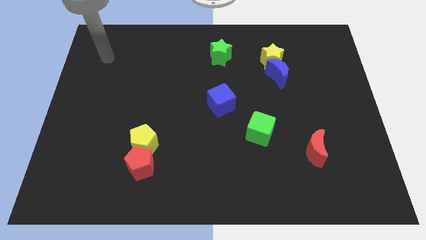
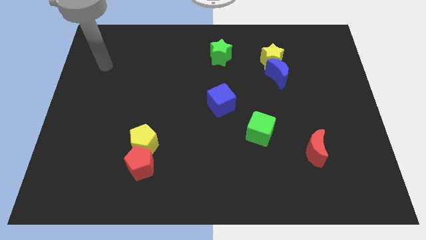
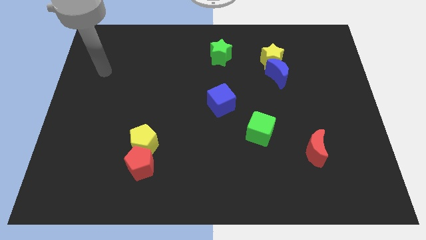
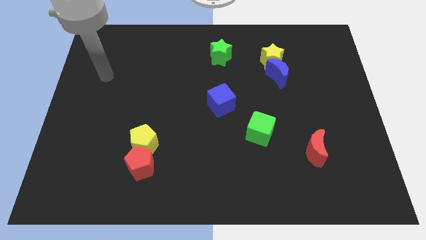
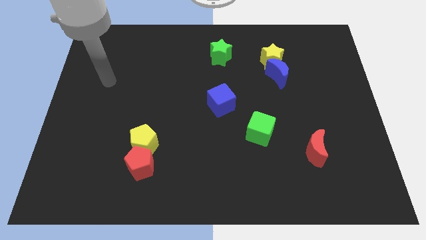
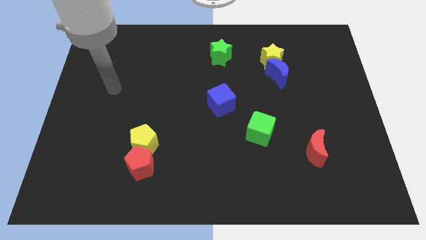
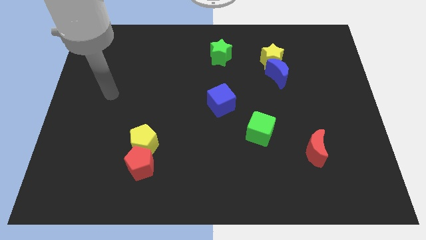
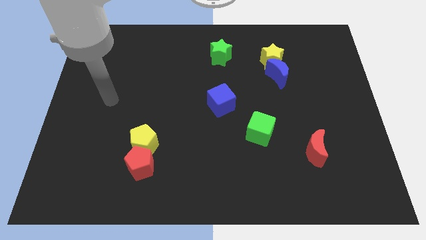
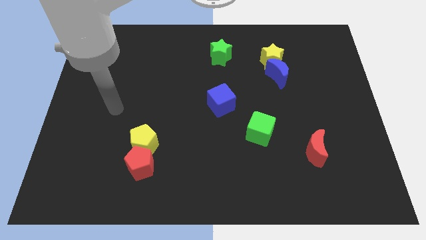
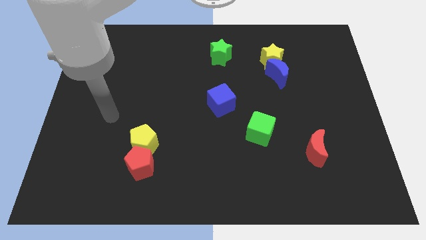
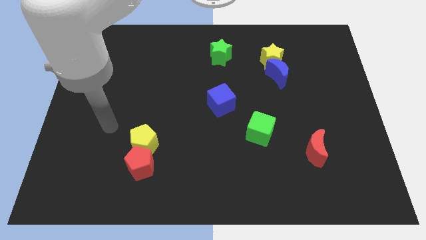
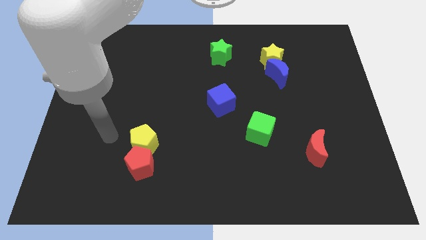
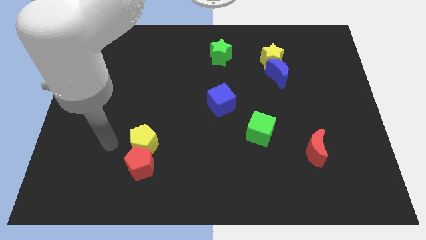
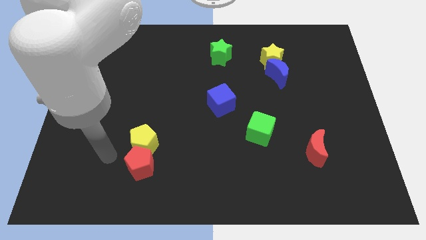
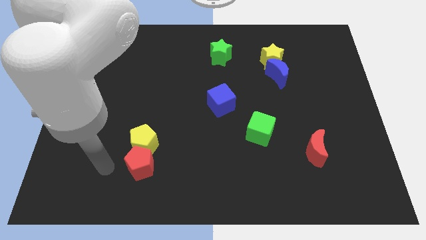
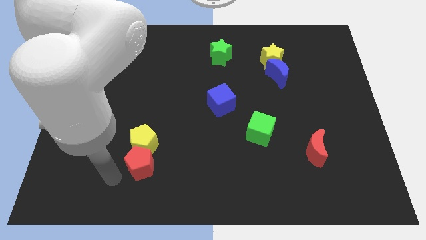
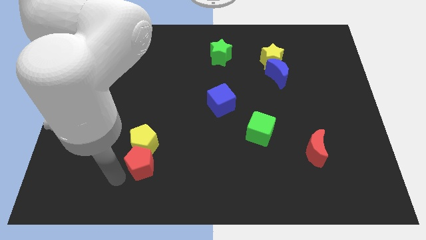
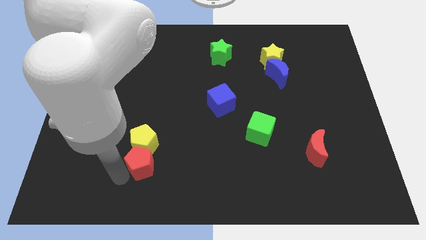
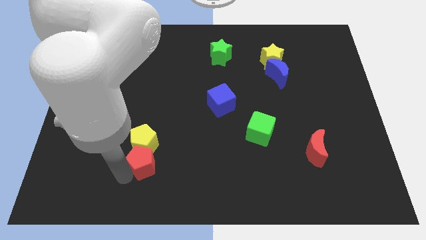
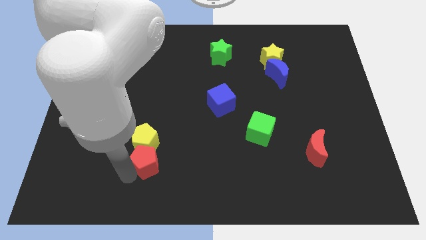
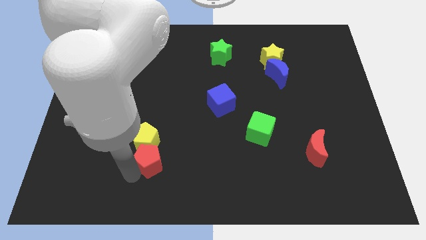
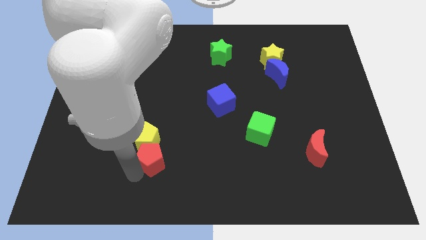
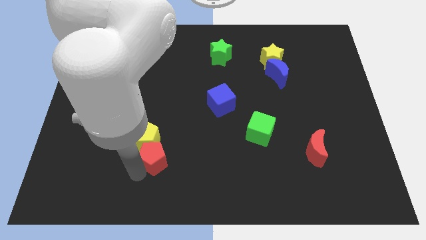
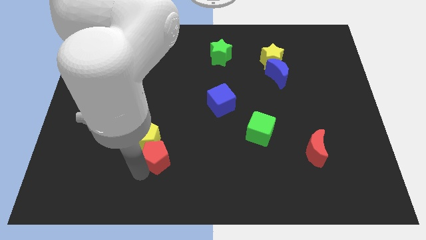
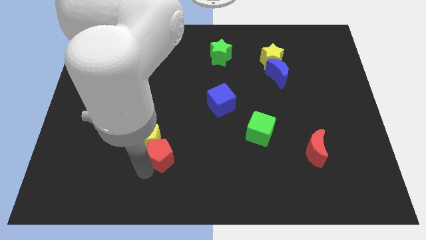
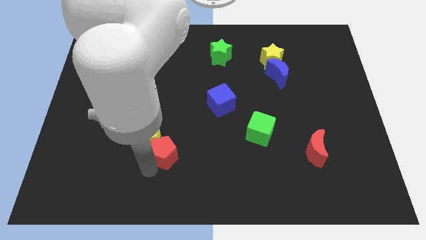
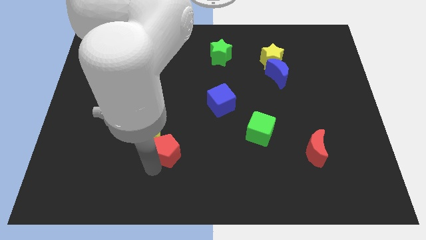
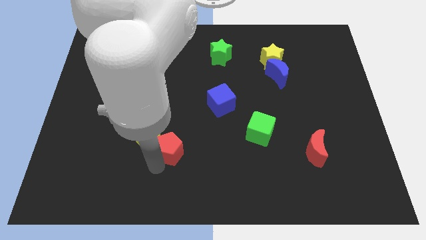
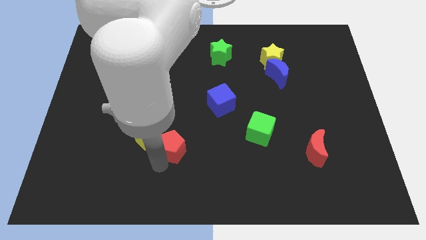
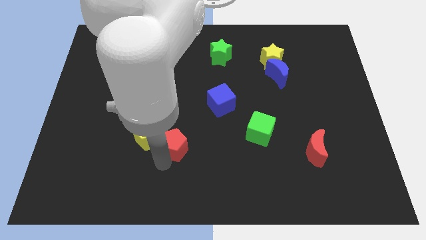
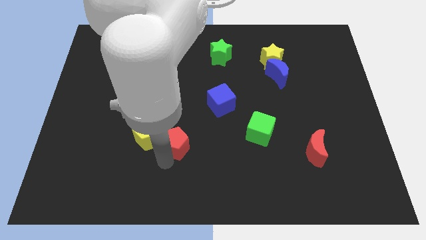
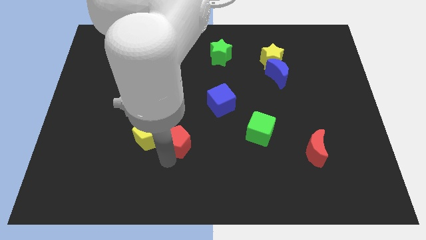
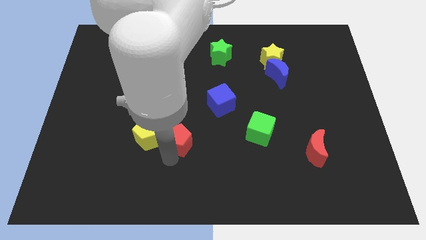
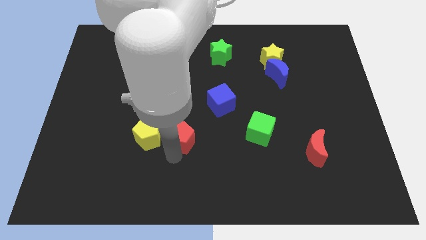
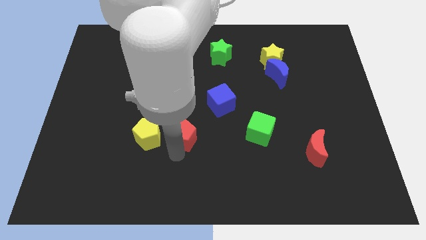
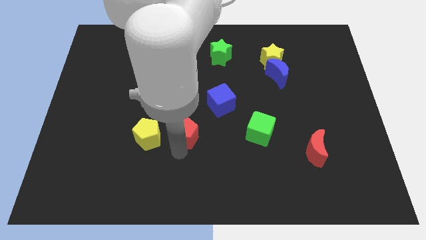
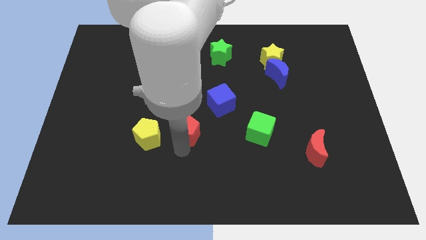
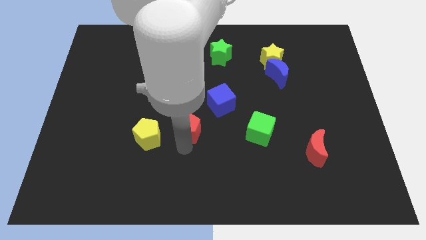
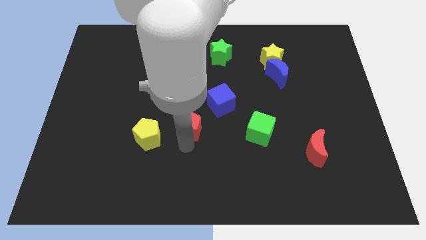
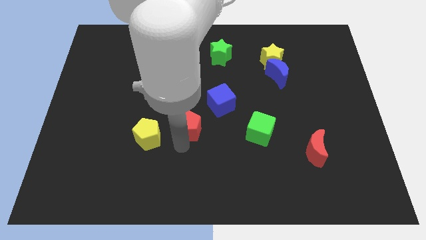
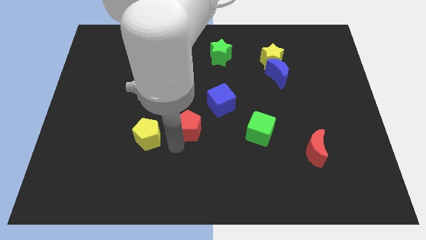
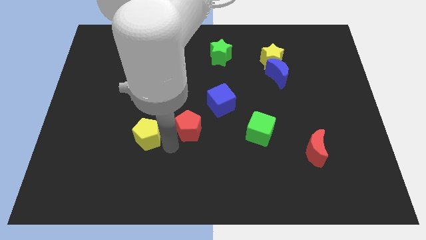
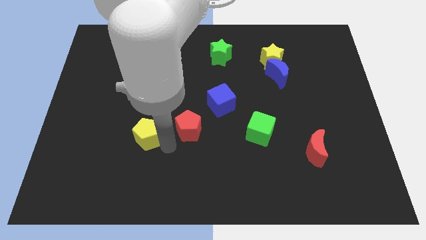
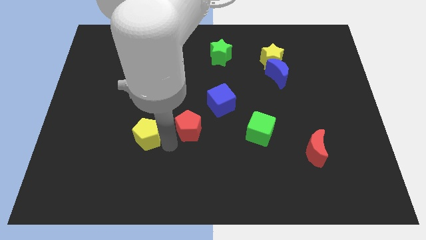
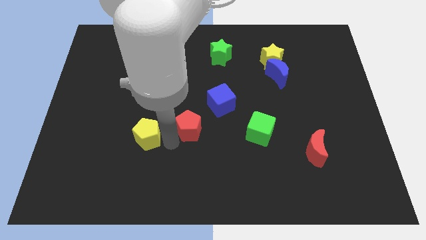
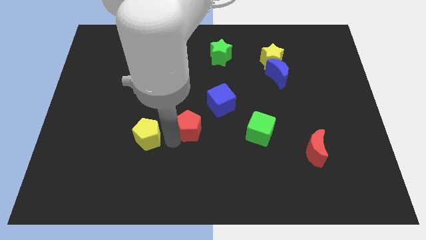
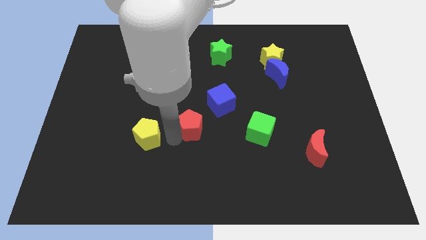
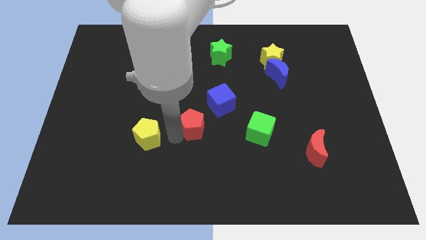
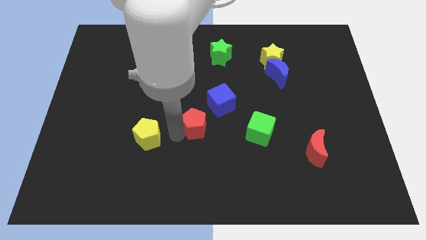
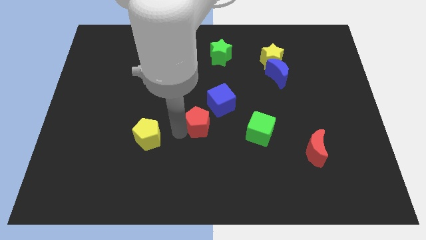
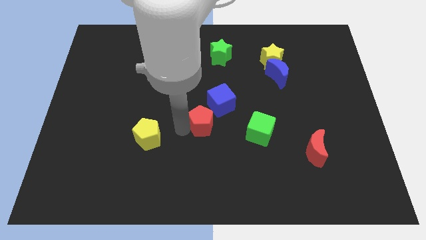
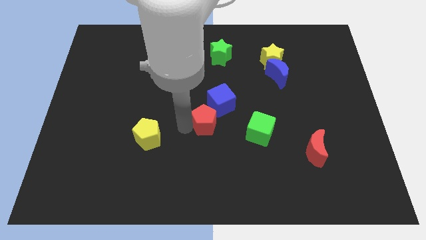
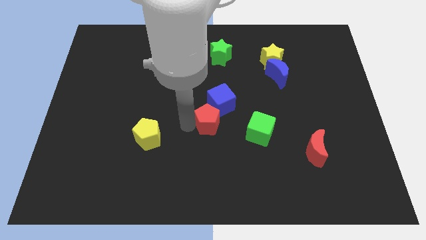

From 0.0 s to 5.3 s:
put the red pentagon to the blue cube

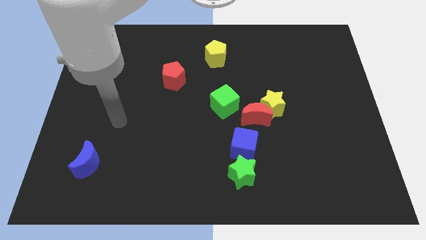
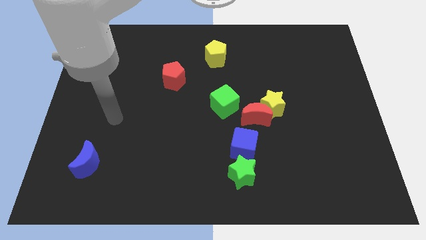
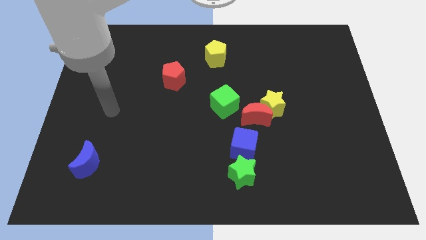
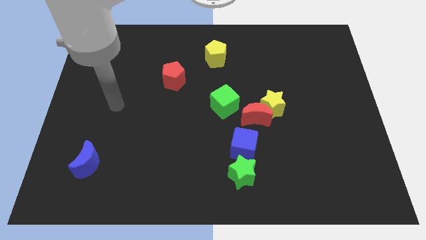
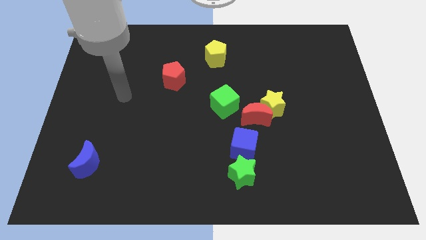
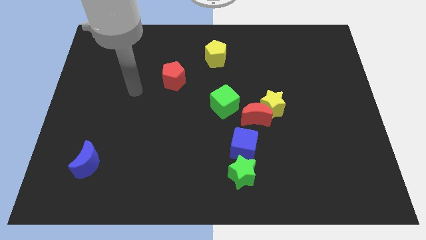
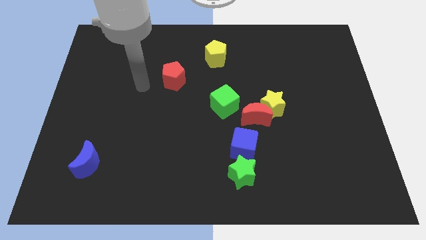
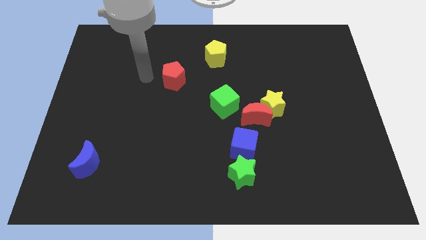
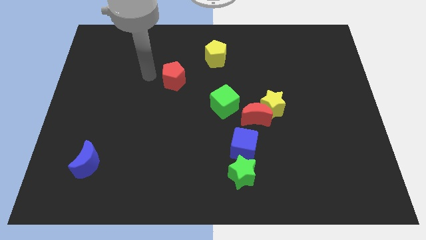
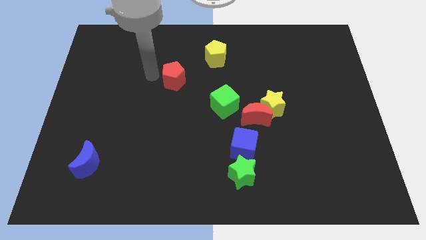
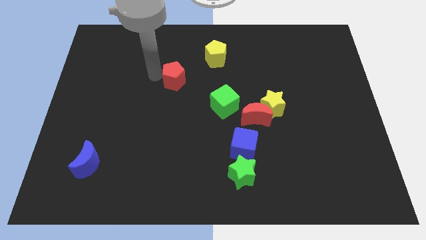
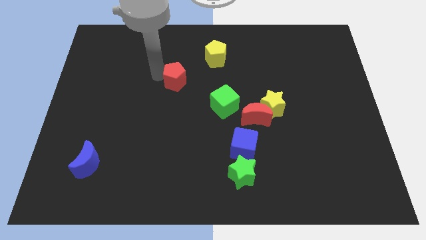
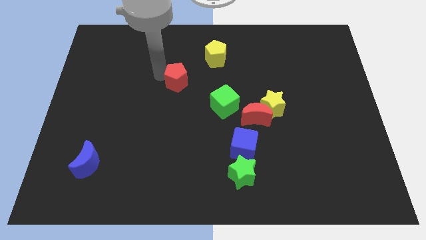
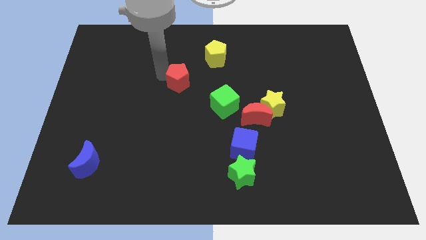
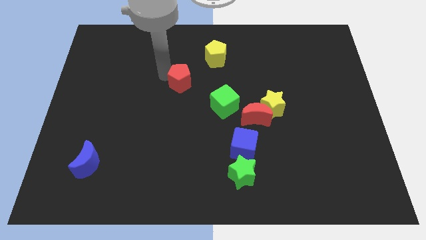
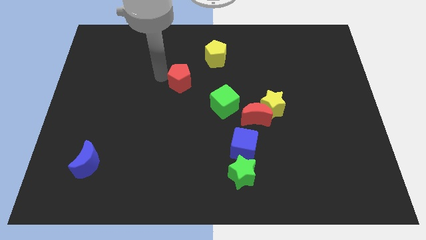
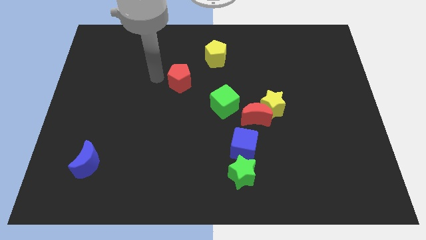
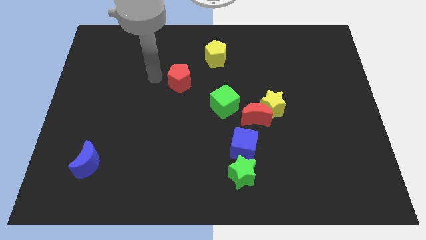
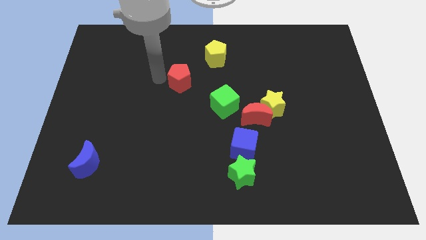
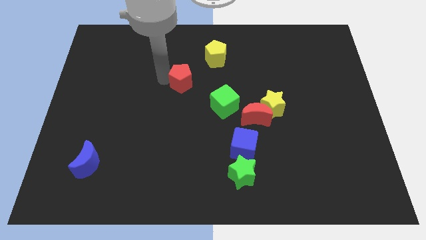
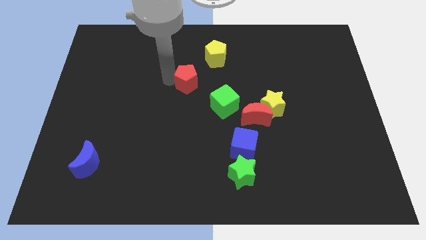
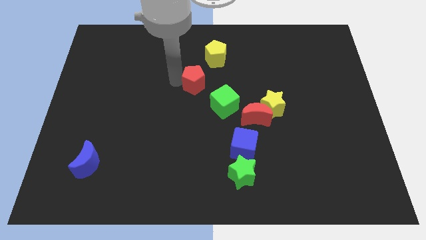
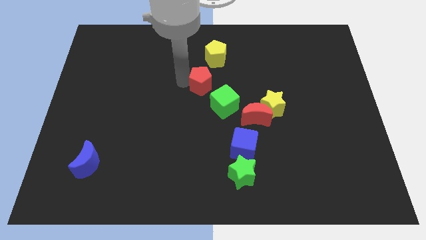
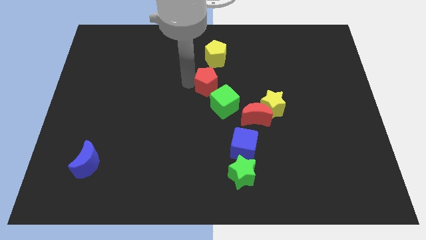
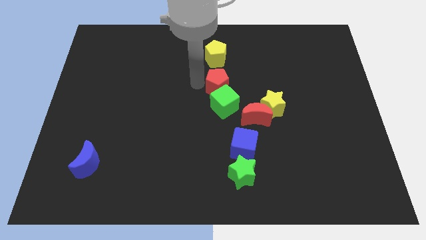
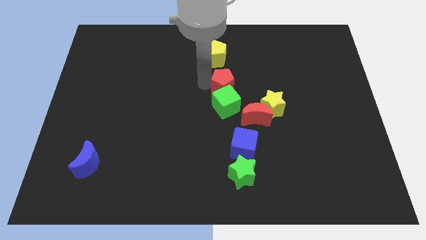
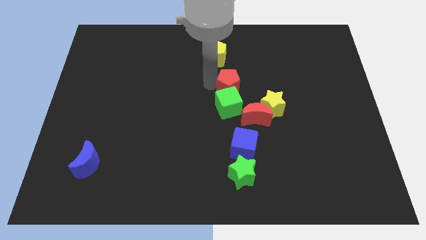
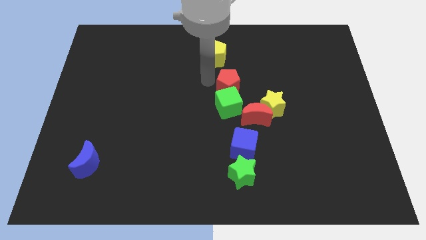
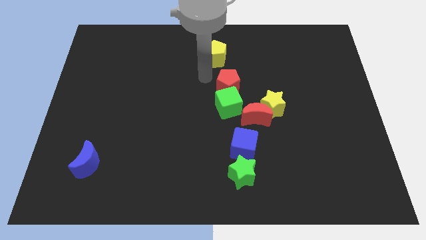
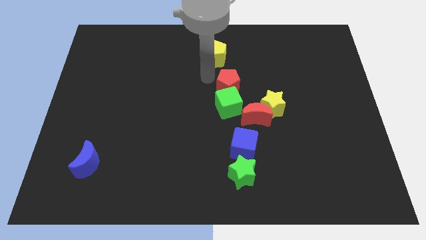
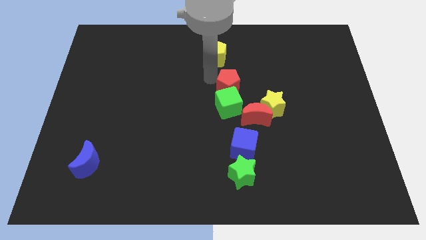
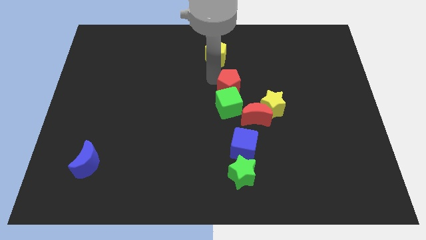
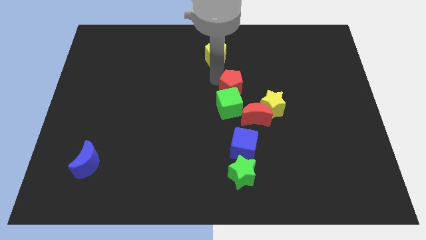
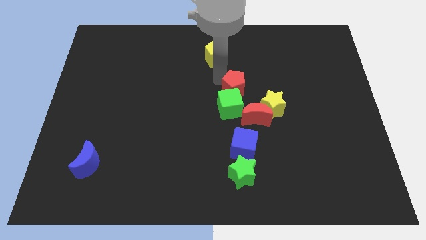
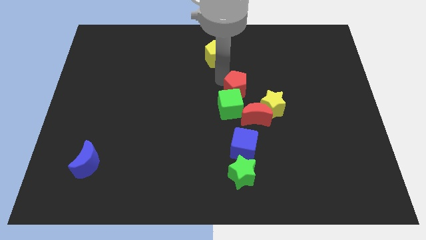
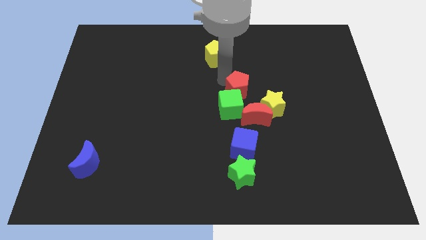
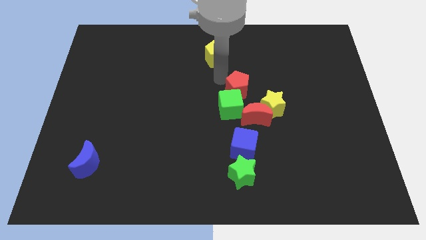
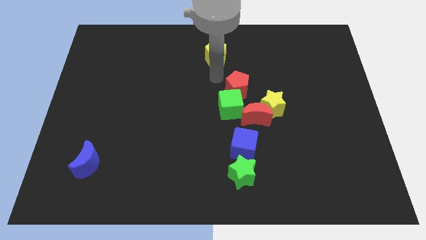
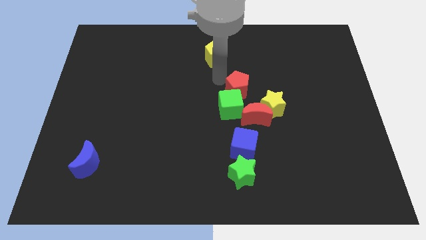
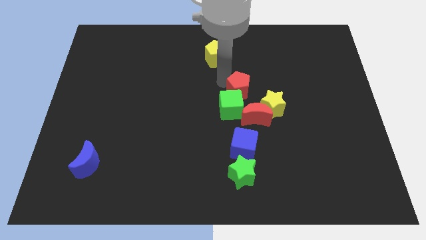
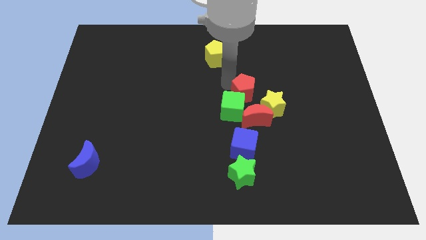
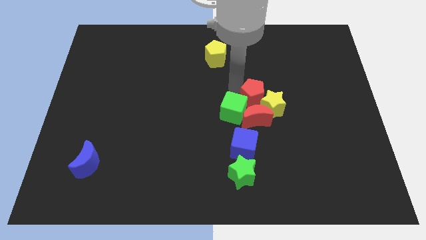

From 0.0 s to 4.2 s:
move the red pentagon to the yellow star
